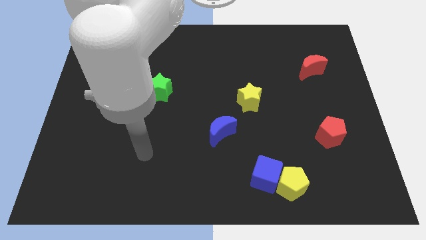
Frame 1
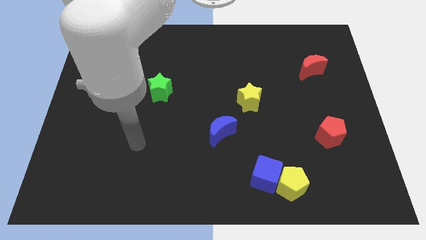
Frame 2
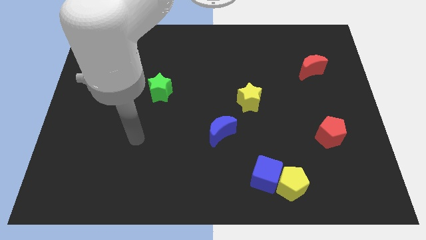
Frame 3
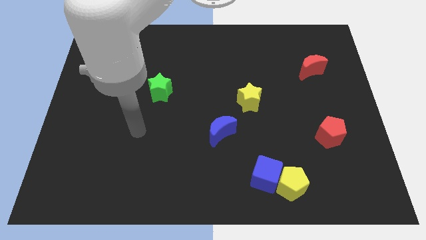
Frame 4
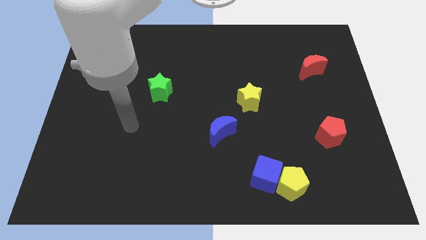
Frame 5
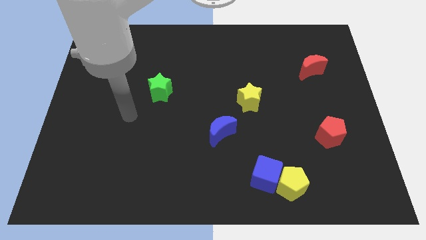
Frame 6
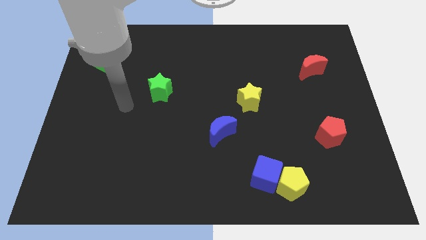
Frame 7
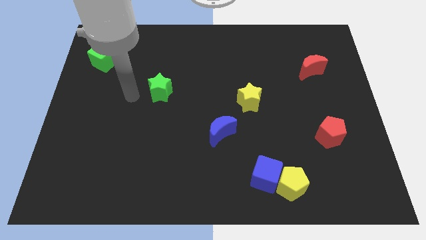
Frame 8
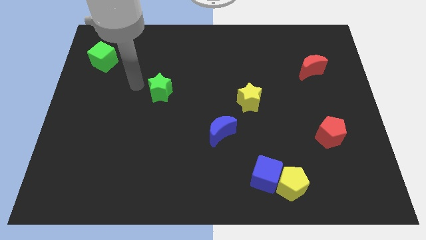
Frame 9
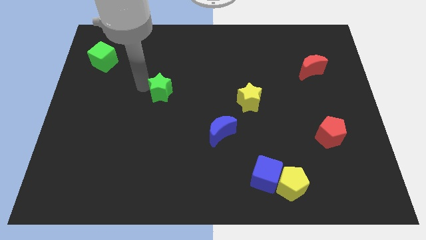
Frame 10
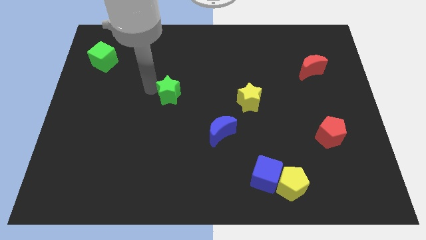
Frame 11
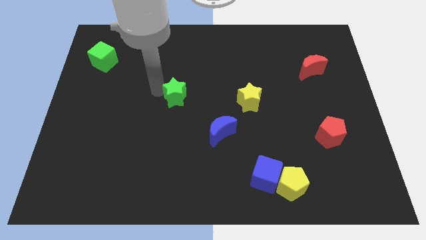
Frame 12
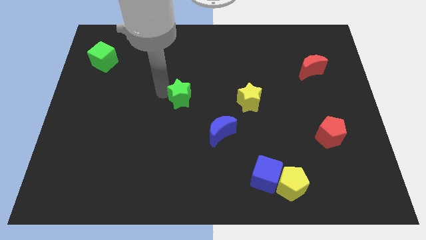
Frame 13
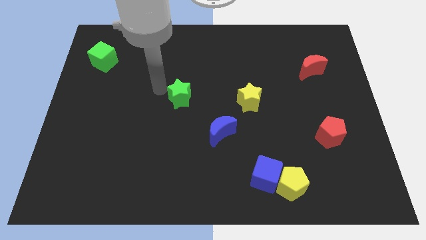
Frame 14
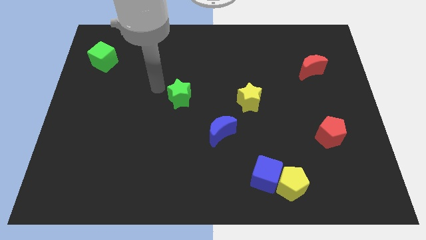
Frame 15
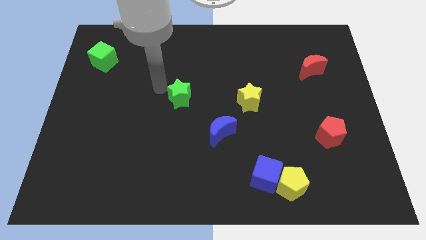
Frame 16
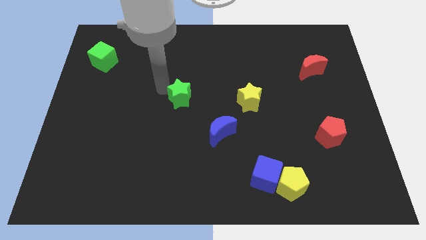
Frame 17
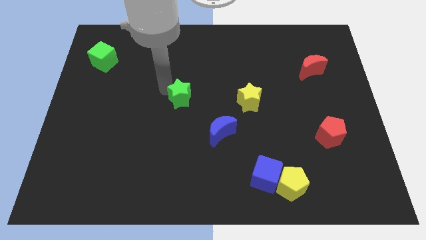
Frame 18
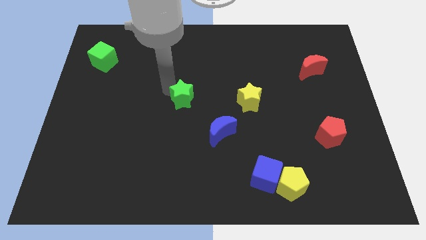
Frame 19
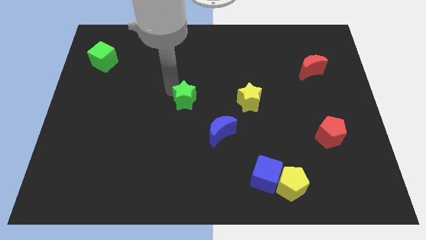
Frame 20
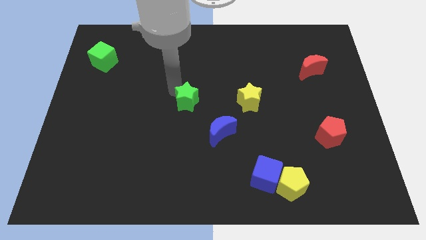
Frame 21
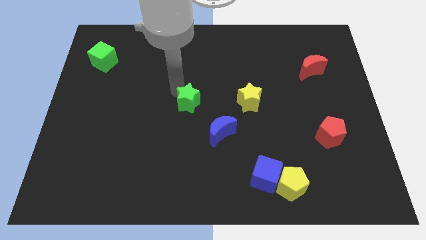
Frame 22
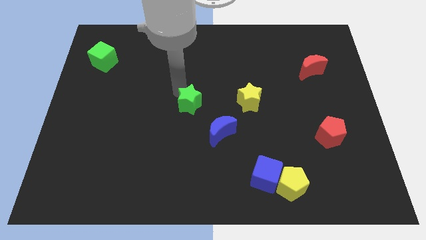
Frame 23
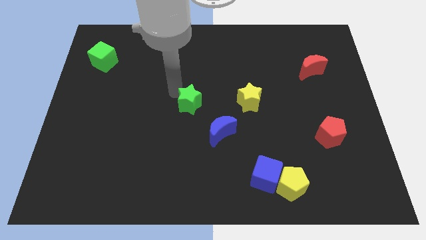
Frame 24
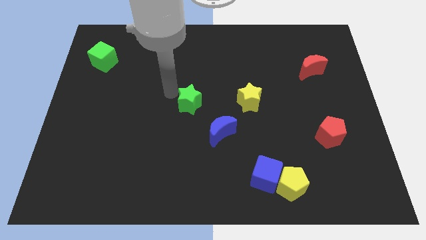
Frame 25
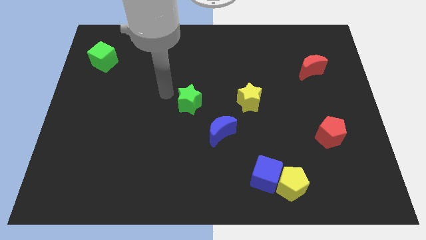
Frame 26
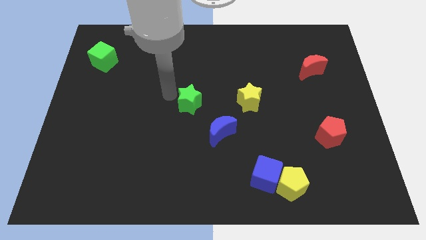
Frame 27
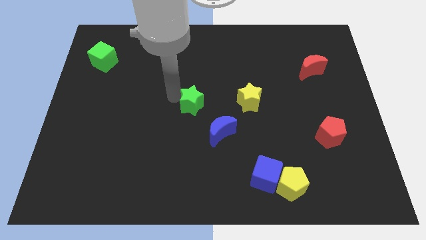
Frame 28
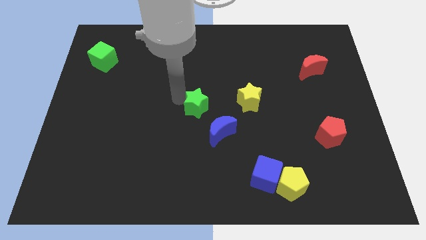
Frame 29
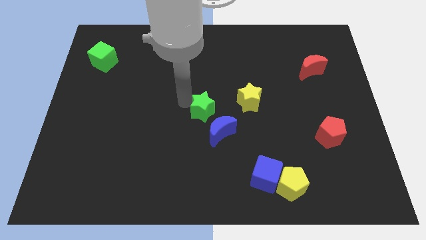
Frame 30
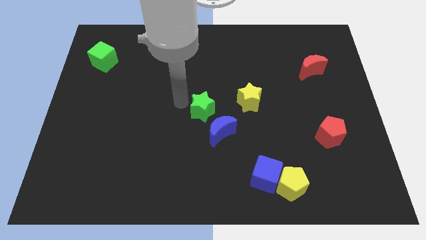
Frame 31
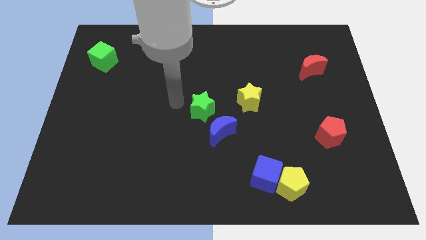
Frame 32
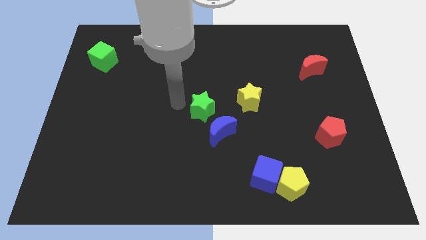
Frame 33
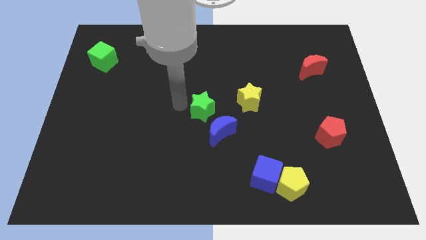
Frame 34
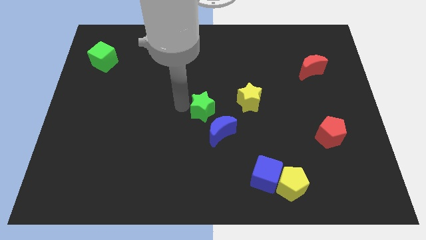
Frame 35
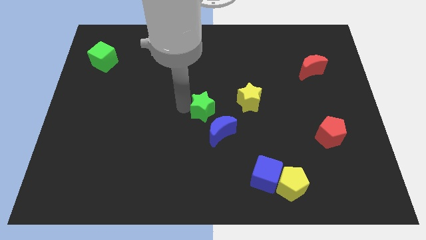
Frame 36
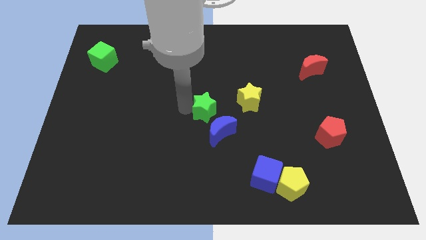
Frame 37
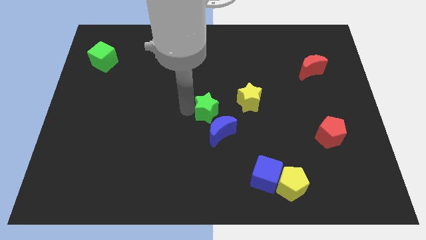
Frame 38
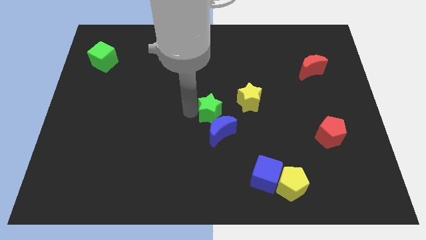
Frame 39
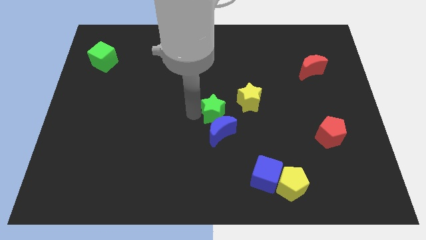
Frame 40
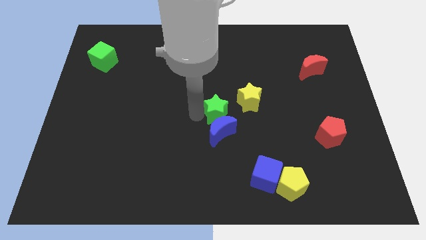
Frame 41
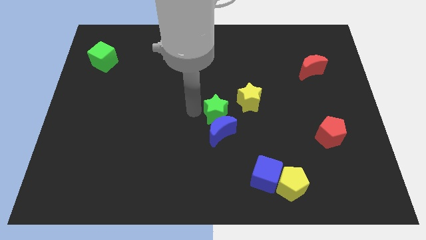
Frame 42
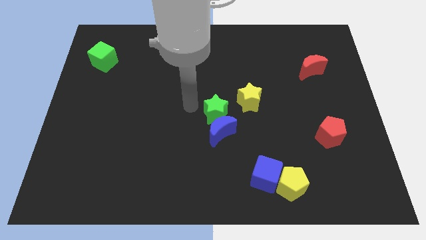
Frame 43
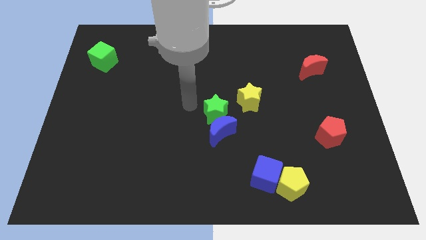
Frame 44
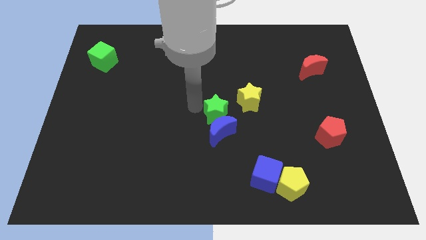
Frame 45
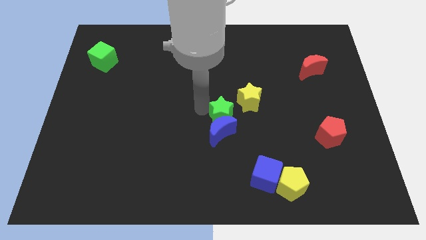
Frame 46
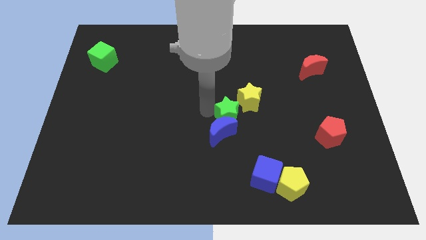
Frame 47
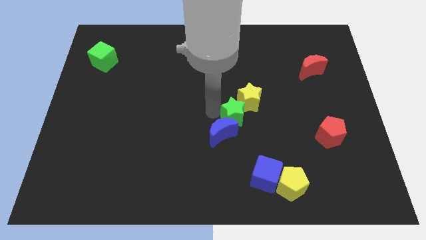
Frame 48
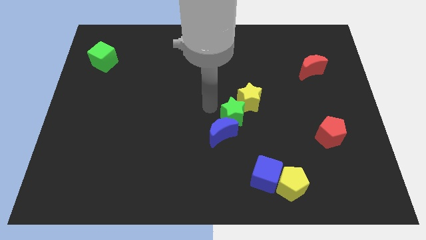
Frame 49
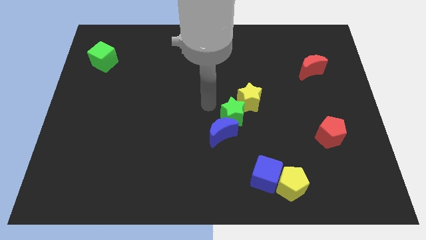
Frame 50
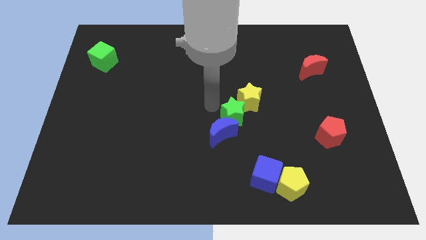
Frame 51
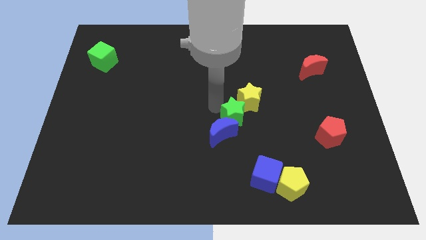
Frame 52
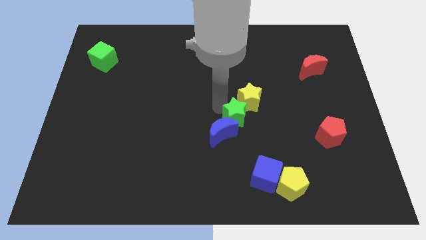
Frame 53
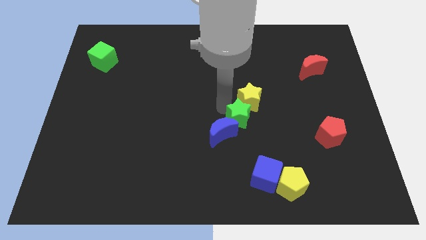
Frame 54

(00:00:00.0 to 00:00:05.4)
move the green star just right of the blue moon
